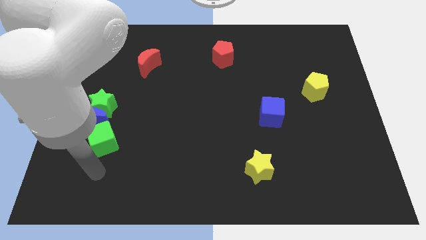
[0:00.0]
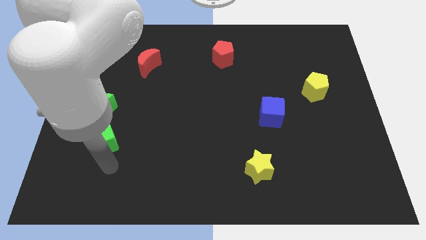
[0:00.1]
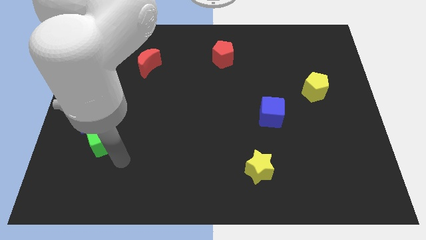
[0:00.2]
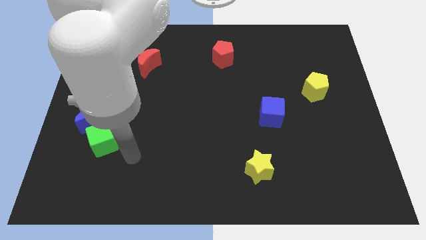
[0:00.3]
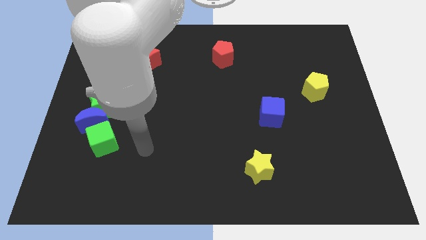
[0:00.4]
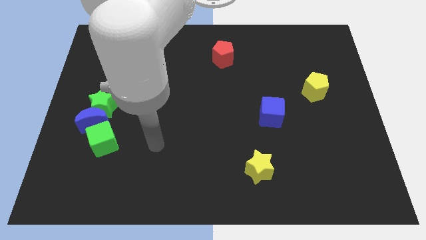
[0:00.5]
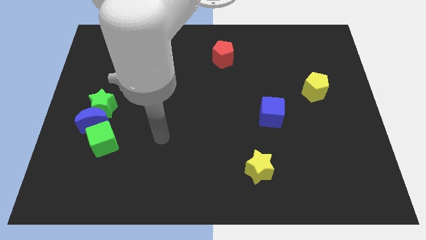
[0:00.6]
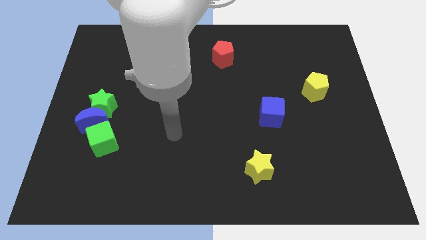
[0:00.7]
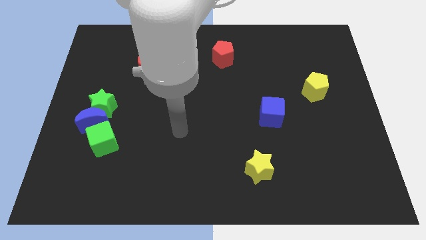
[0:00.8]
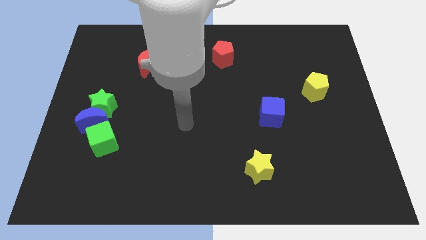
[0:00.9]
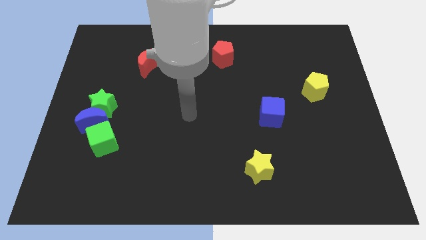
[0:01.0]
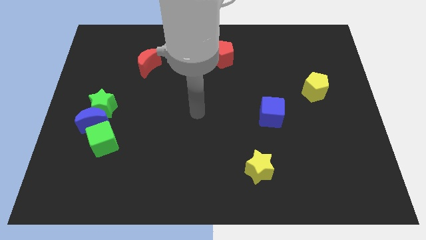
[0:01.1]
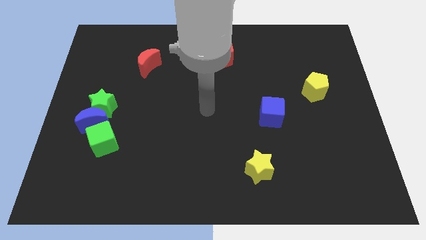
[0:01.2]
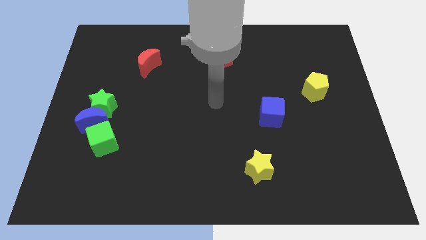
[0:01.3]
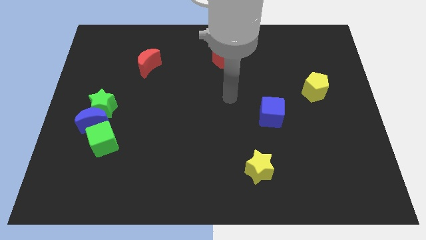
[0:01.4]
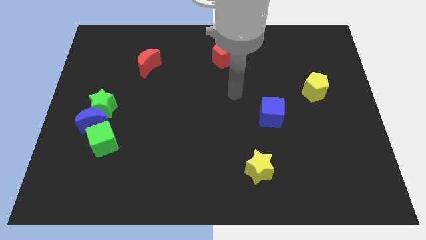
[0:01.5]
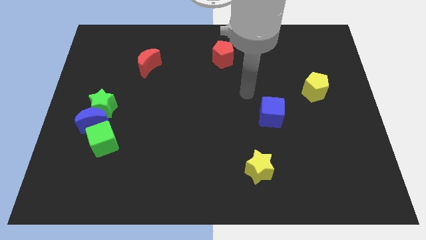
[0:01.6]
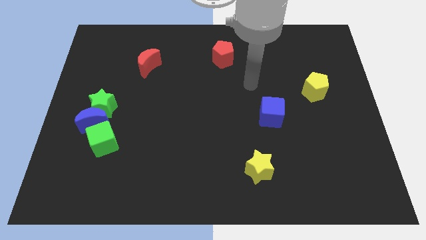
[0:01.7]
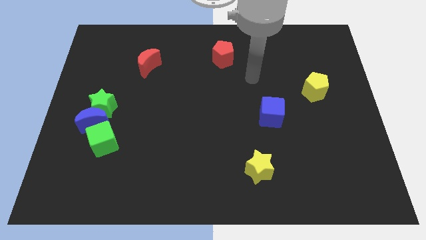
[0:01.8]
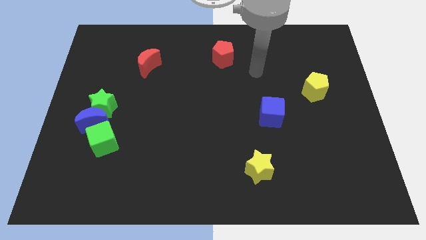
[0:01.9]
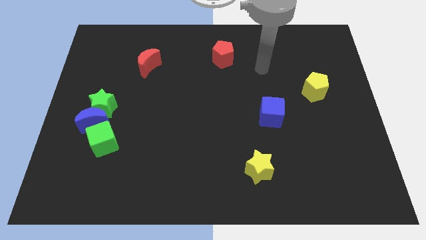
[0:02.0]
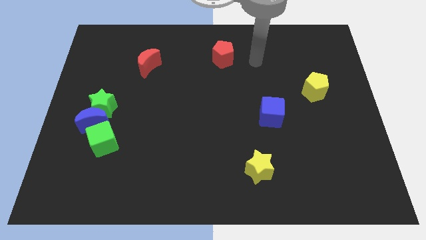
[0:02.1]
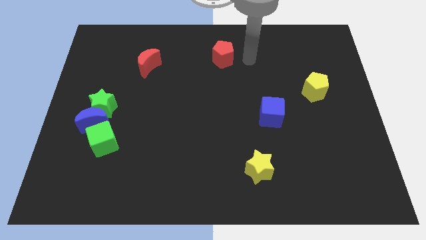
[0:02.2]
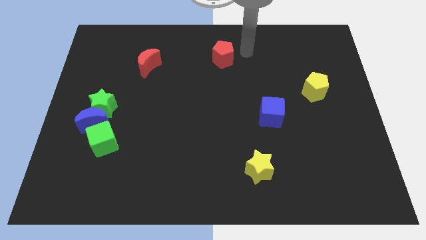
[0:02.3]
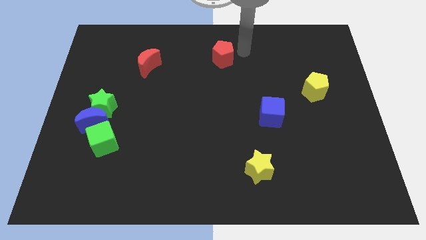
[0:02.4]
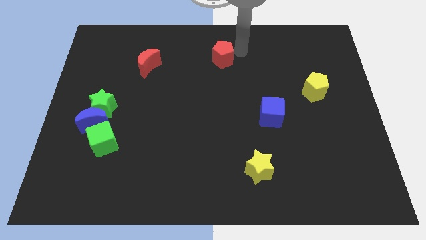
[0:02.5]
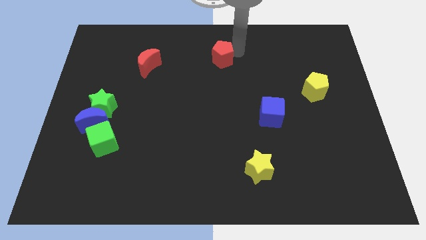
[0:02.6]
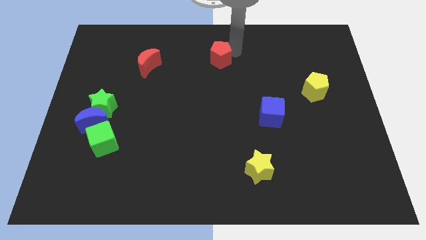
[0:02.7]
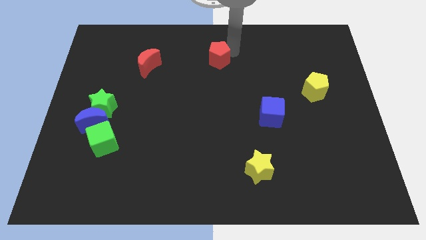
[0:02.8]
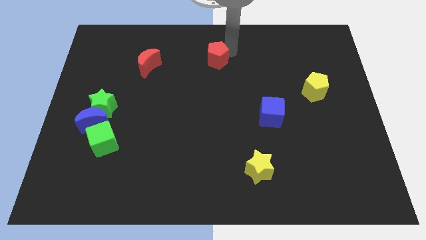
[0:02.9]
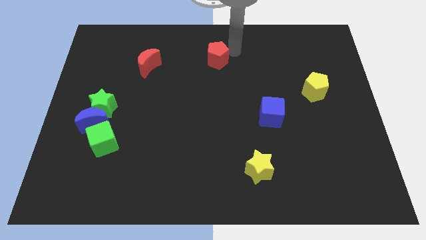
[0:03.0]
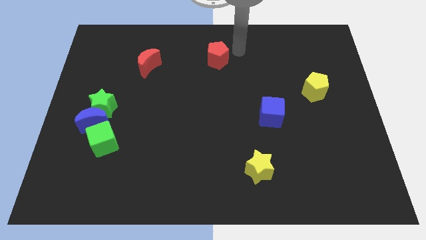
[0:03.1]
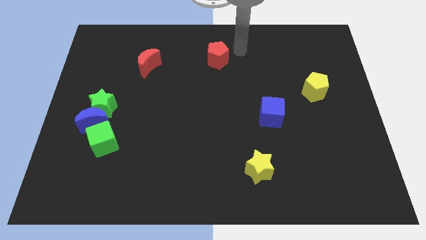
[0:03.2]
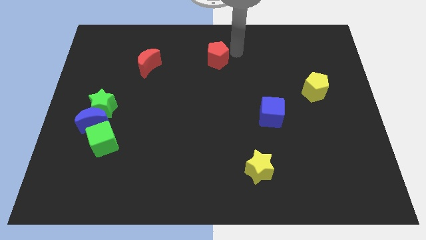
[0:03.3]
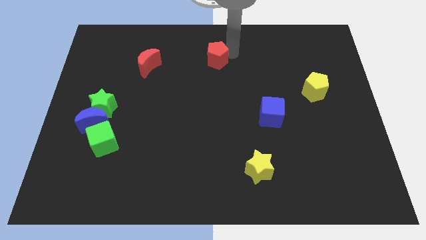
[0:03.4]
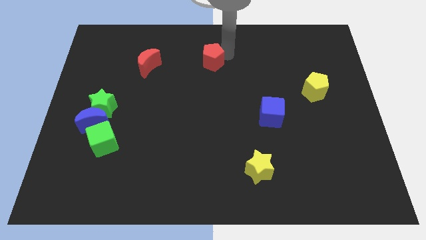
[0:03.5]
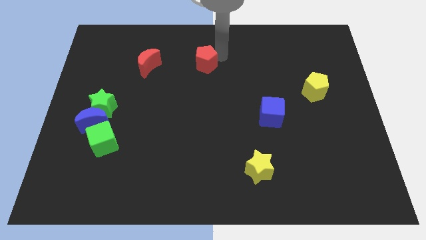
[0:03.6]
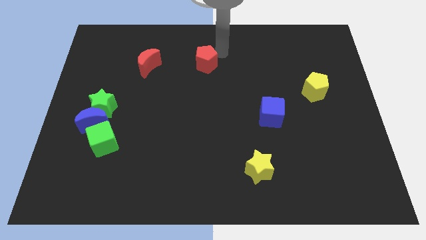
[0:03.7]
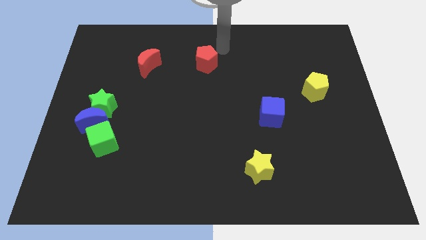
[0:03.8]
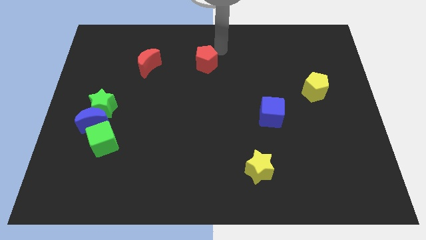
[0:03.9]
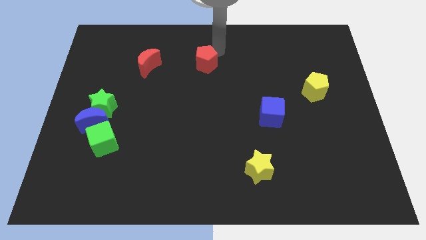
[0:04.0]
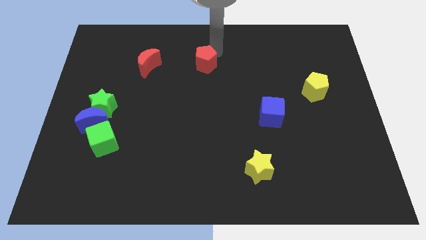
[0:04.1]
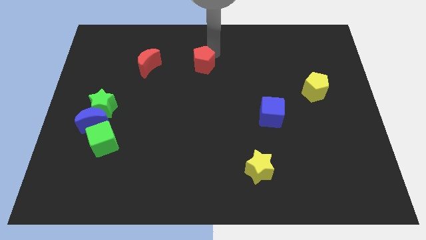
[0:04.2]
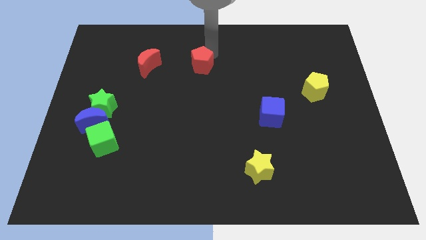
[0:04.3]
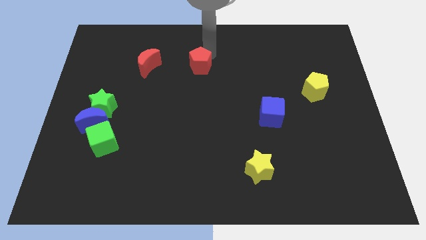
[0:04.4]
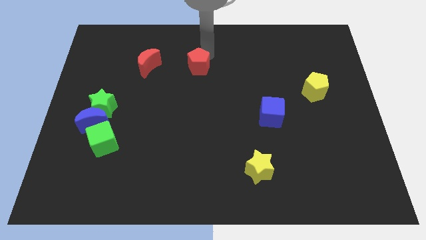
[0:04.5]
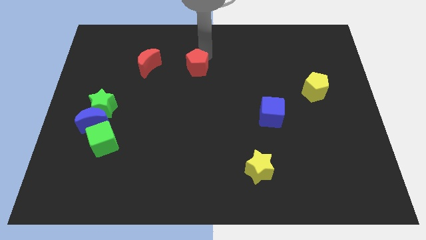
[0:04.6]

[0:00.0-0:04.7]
slightly move the red pentagon down and then to the left

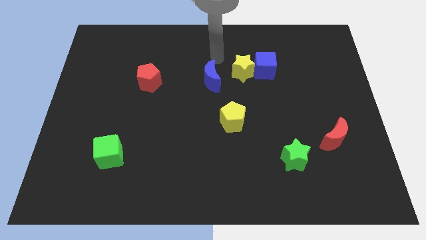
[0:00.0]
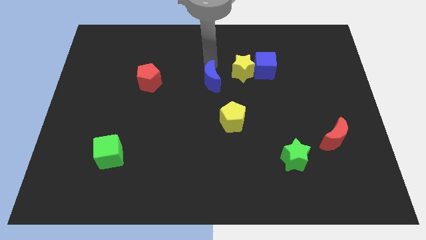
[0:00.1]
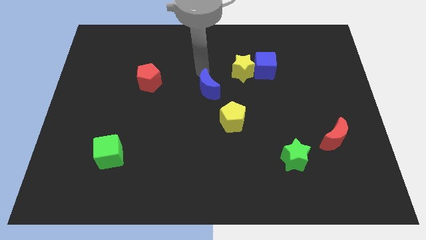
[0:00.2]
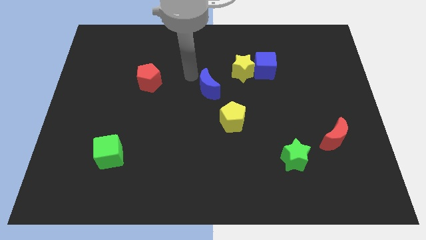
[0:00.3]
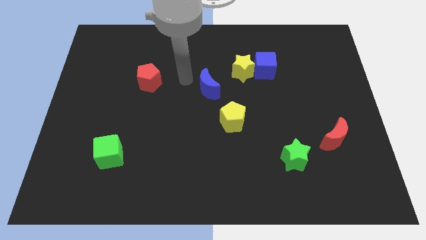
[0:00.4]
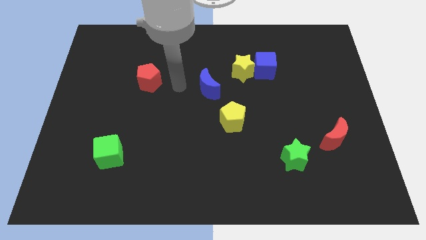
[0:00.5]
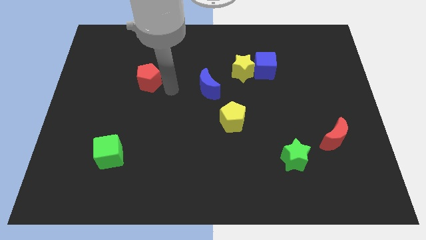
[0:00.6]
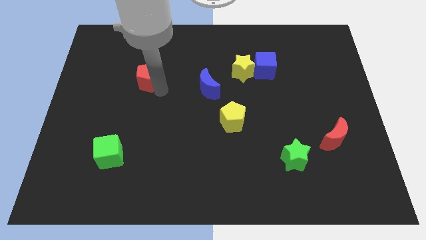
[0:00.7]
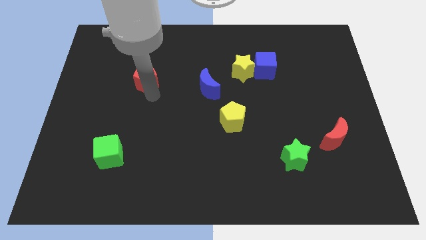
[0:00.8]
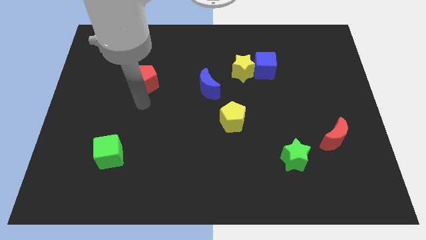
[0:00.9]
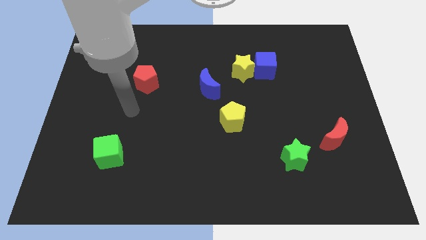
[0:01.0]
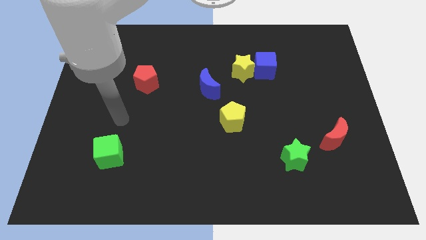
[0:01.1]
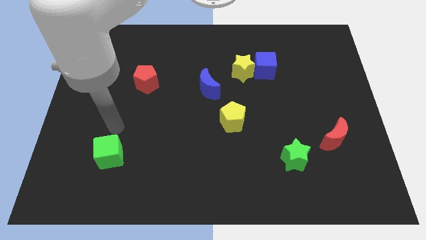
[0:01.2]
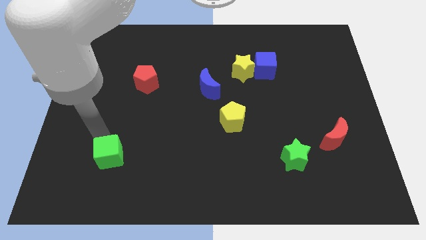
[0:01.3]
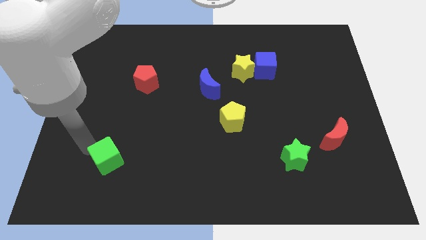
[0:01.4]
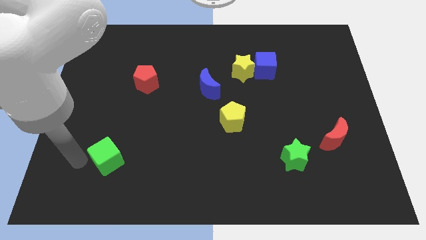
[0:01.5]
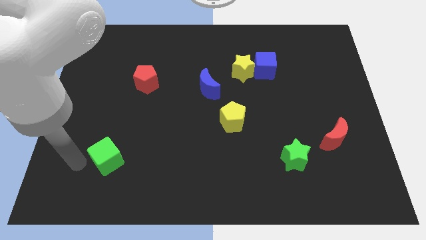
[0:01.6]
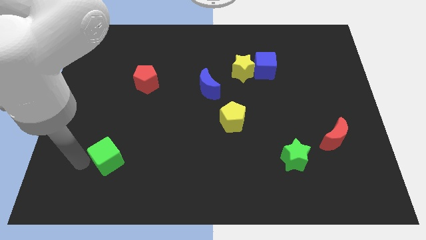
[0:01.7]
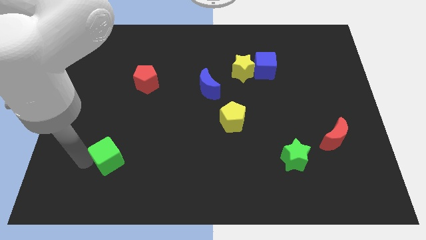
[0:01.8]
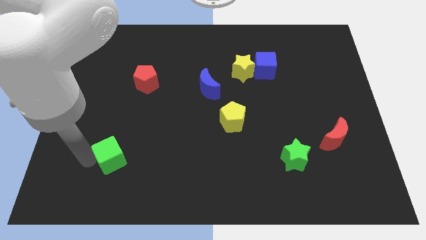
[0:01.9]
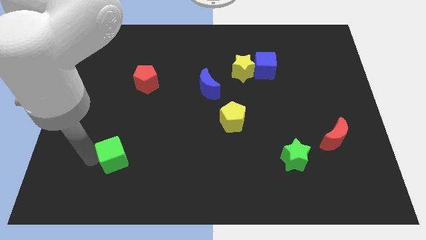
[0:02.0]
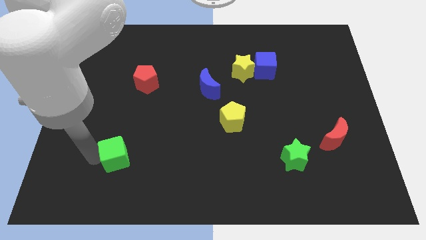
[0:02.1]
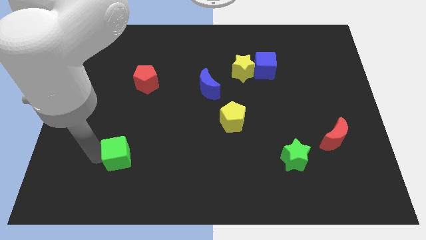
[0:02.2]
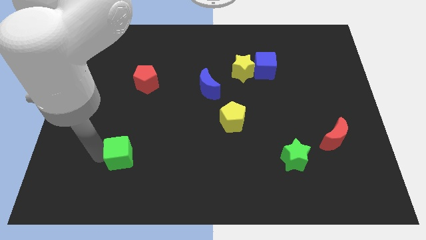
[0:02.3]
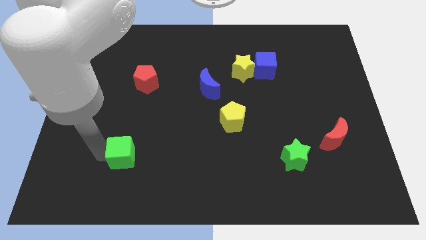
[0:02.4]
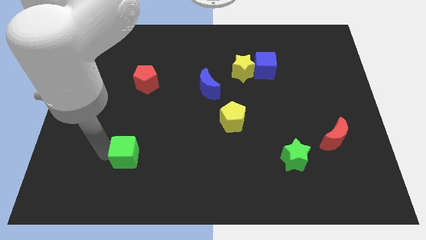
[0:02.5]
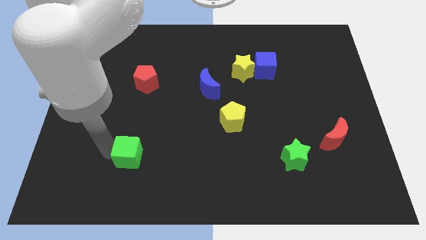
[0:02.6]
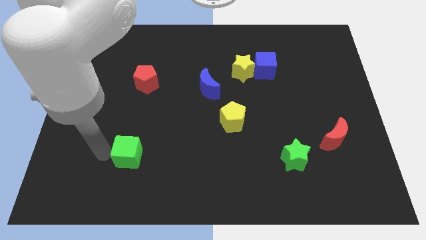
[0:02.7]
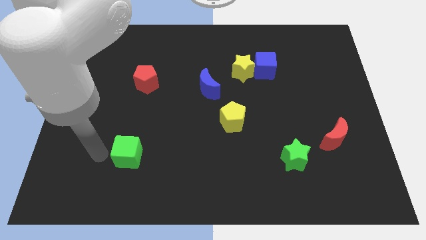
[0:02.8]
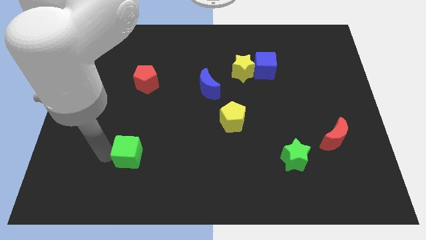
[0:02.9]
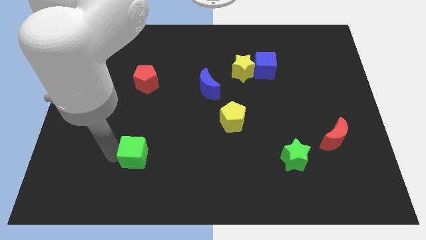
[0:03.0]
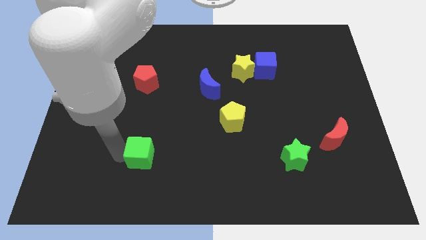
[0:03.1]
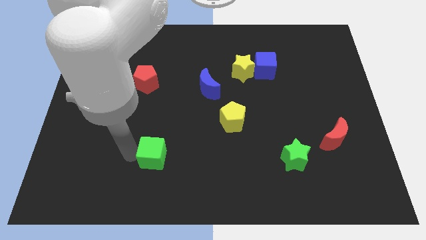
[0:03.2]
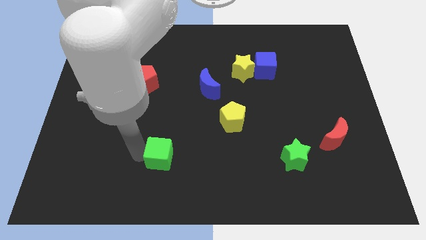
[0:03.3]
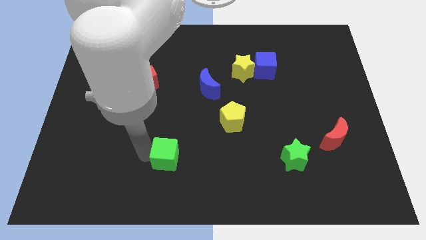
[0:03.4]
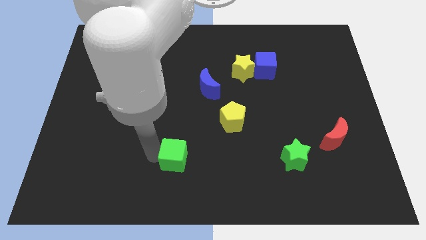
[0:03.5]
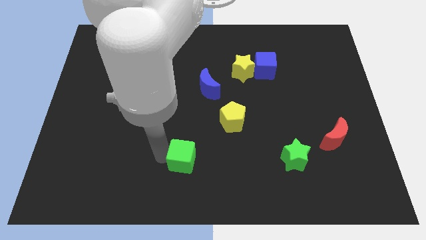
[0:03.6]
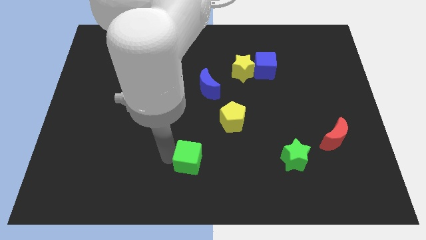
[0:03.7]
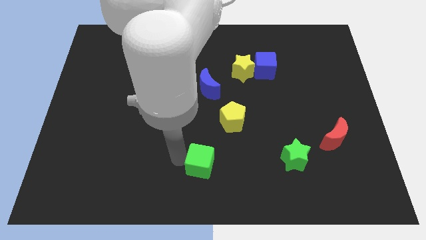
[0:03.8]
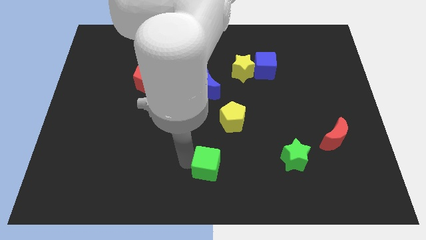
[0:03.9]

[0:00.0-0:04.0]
push the green cube to the right
